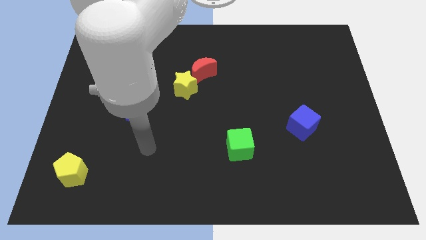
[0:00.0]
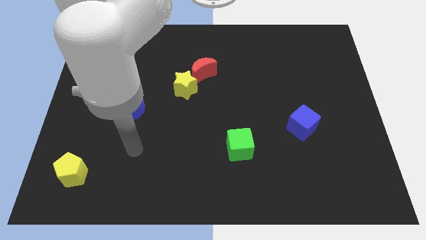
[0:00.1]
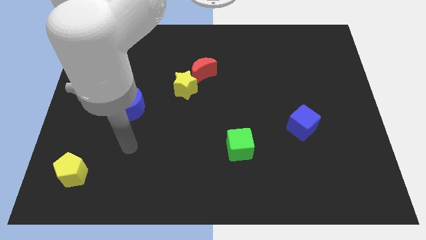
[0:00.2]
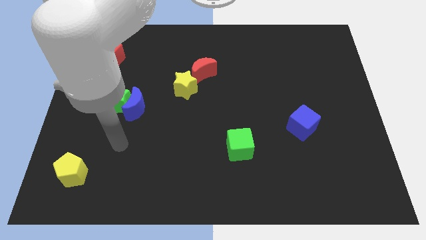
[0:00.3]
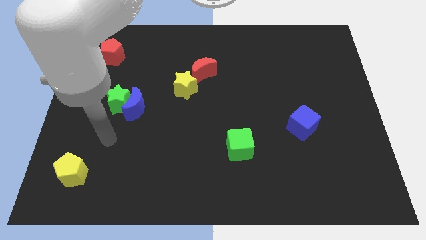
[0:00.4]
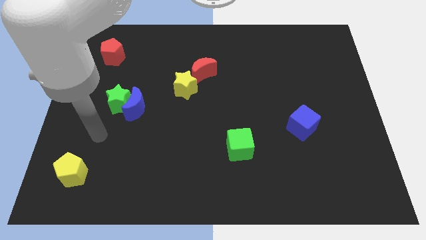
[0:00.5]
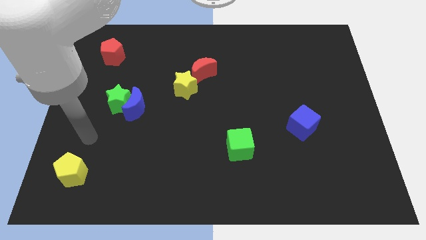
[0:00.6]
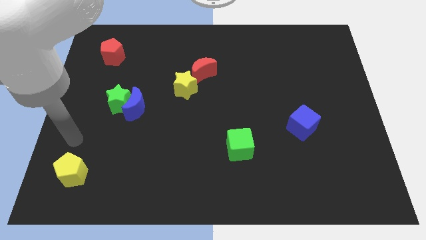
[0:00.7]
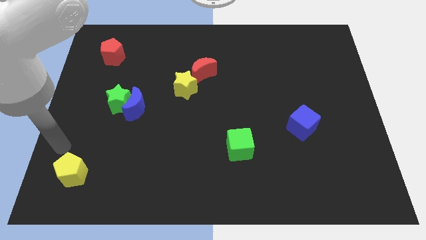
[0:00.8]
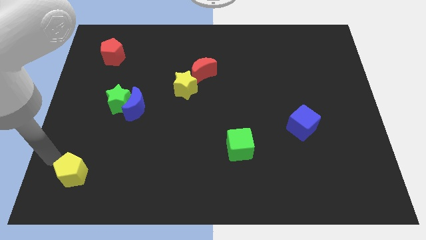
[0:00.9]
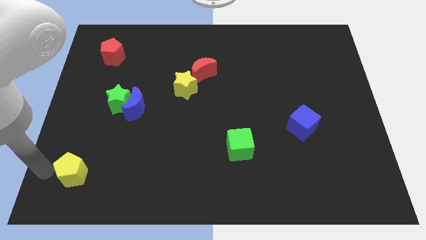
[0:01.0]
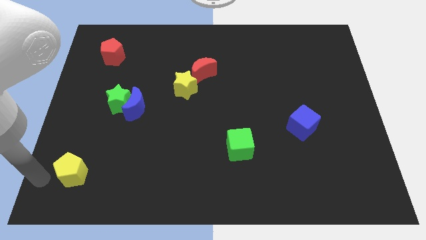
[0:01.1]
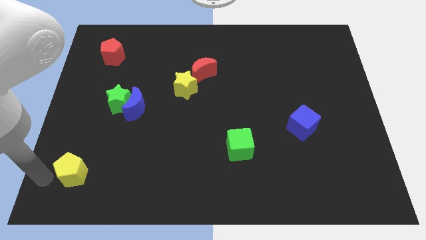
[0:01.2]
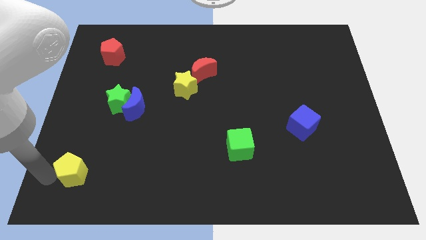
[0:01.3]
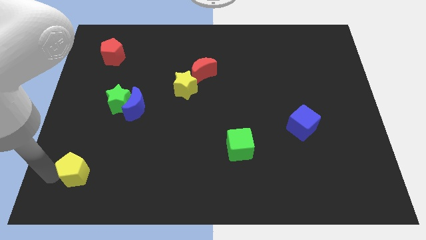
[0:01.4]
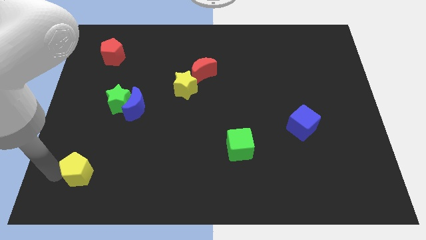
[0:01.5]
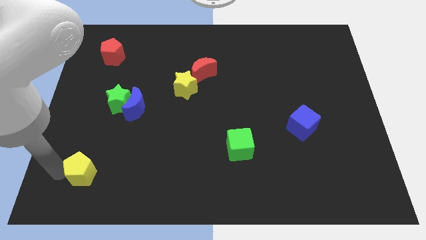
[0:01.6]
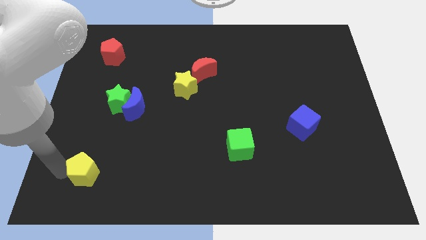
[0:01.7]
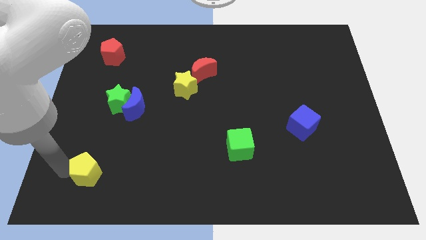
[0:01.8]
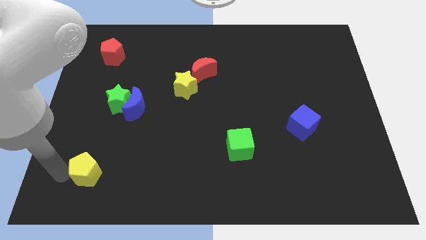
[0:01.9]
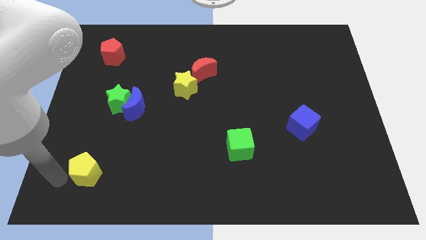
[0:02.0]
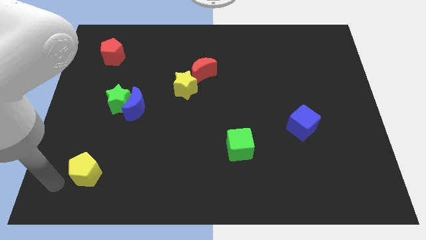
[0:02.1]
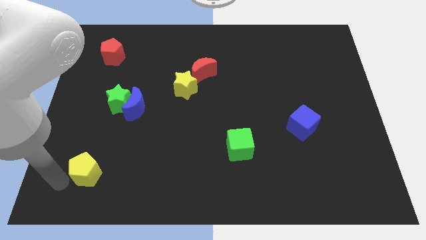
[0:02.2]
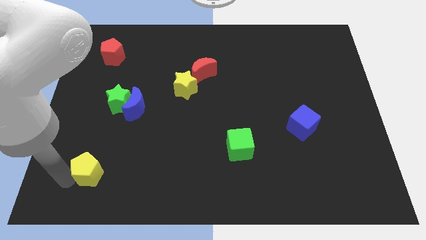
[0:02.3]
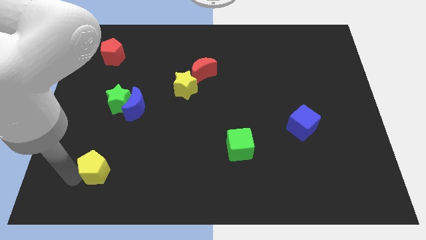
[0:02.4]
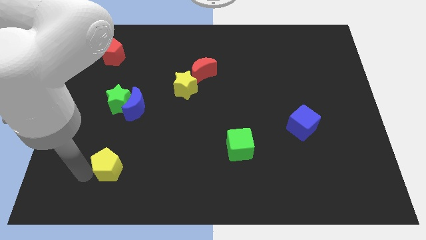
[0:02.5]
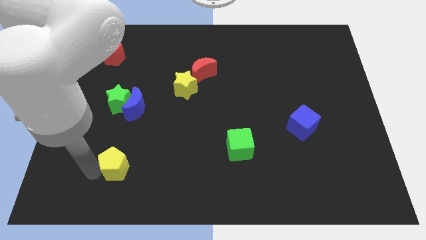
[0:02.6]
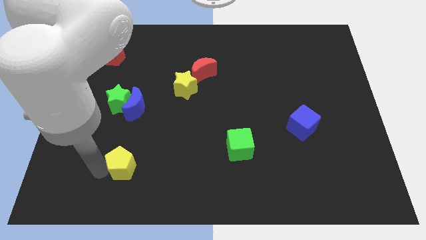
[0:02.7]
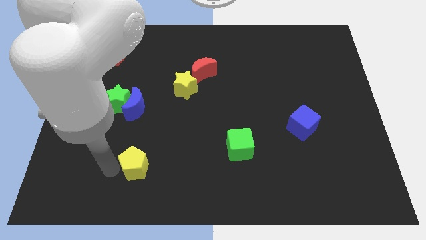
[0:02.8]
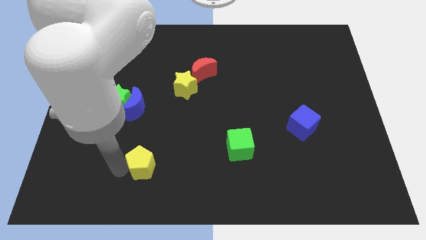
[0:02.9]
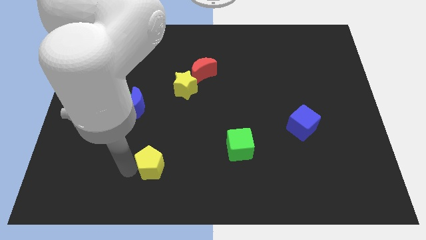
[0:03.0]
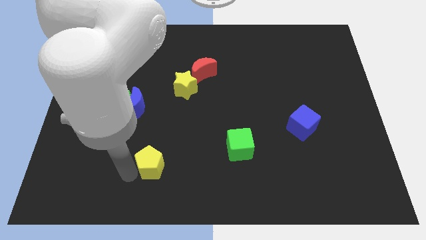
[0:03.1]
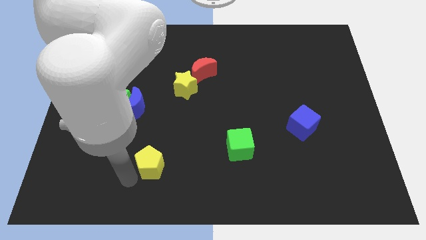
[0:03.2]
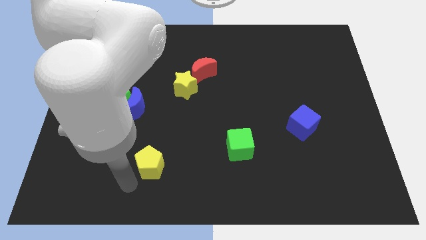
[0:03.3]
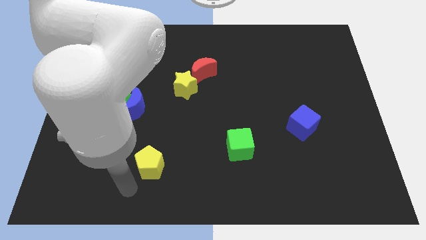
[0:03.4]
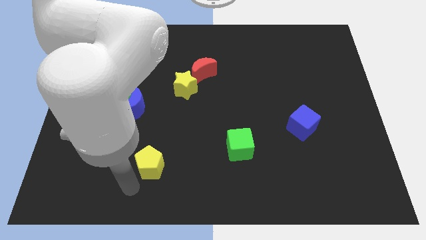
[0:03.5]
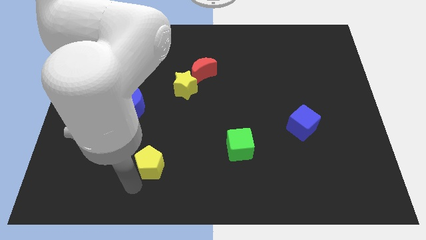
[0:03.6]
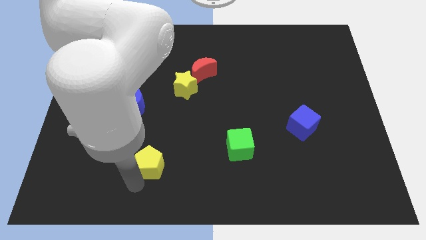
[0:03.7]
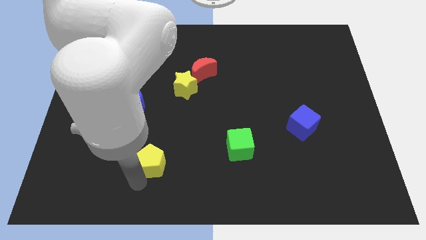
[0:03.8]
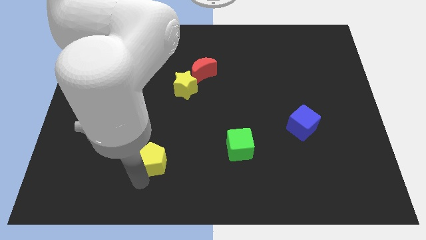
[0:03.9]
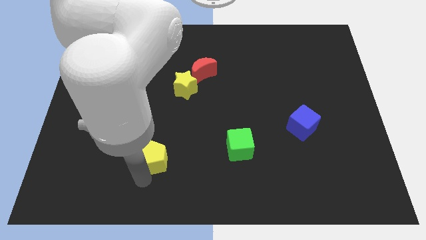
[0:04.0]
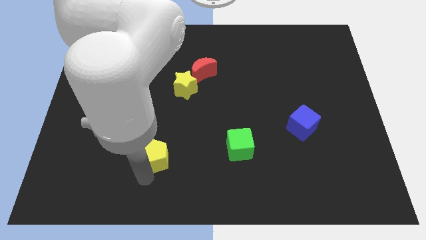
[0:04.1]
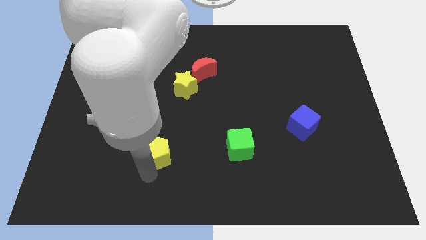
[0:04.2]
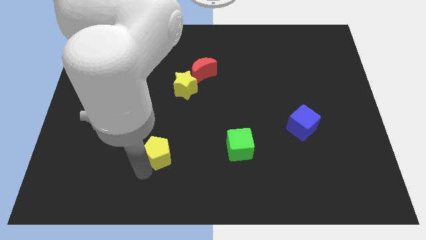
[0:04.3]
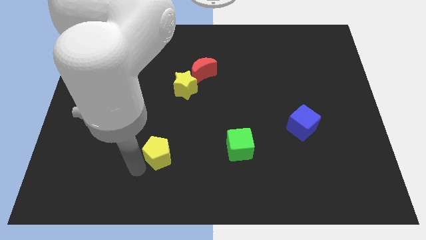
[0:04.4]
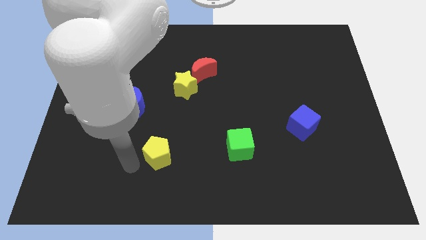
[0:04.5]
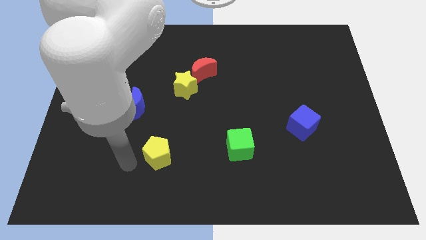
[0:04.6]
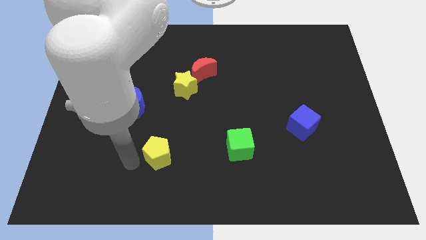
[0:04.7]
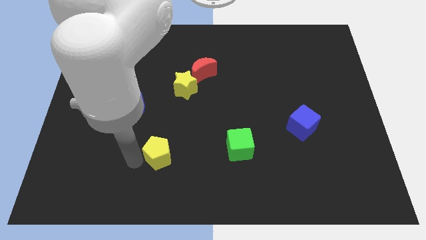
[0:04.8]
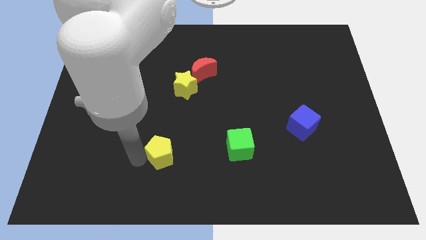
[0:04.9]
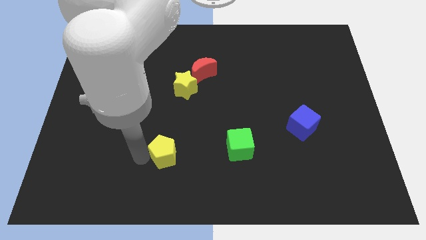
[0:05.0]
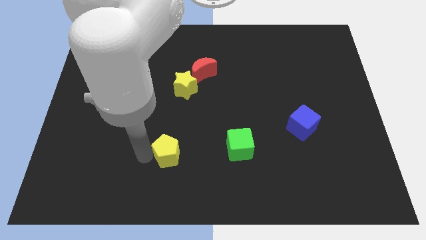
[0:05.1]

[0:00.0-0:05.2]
push the yellow pentagon just left of the green cube

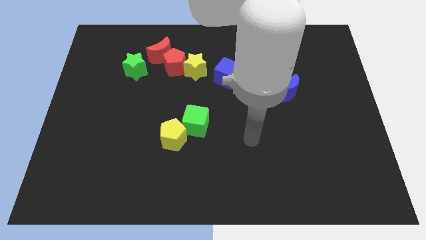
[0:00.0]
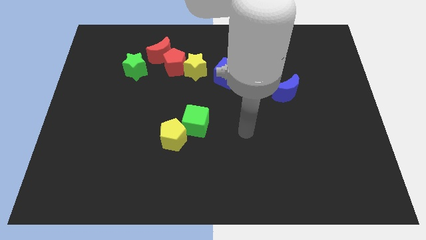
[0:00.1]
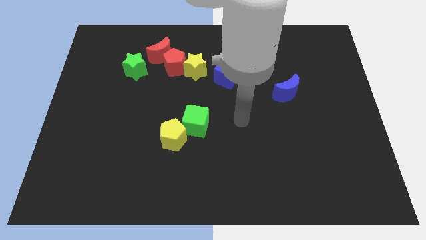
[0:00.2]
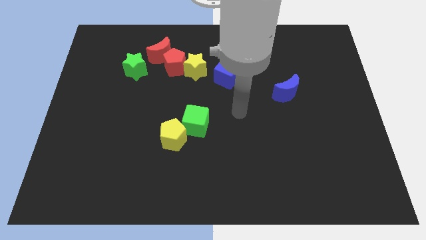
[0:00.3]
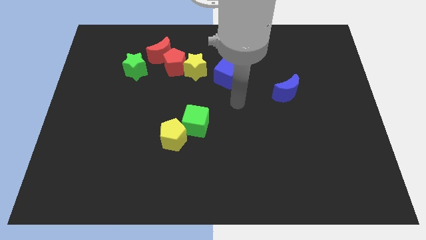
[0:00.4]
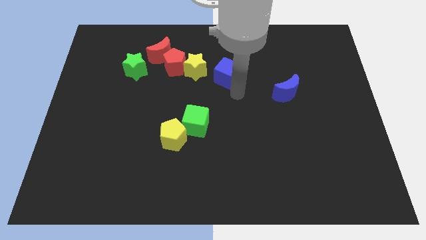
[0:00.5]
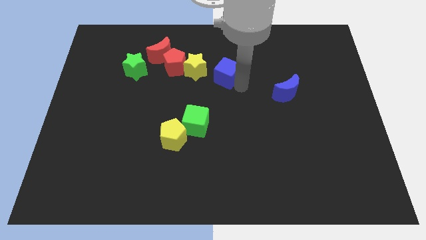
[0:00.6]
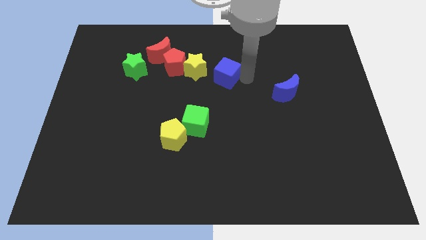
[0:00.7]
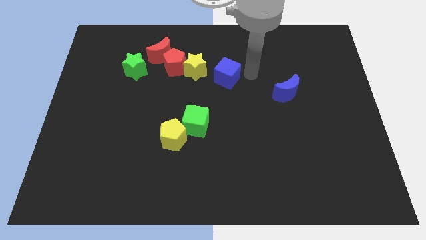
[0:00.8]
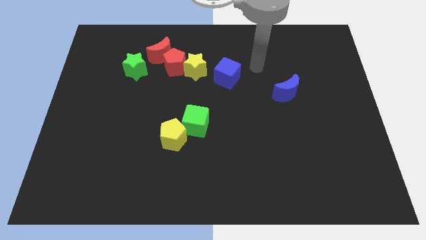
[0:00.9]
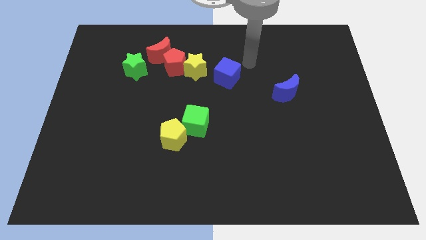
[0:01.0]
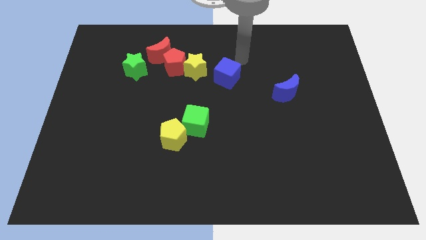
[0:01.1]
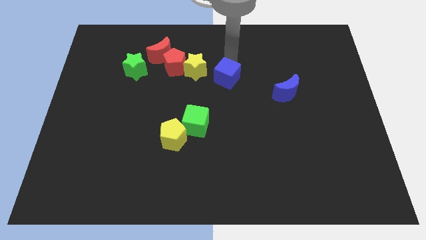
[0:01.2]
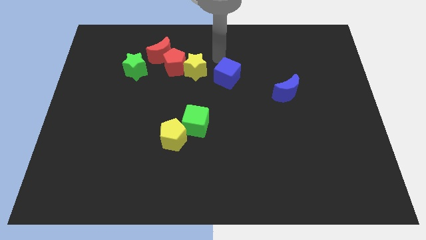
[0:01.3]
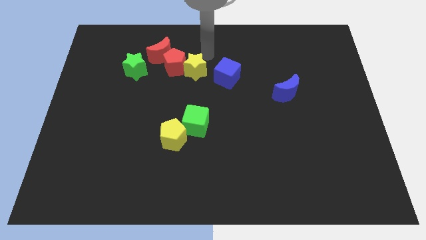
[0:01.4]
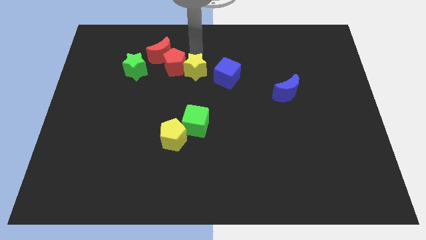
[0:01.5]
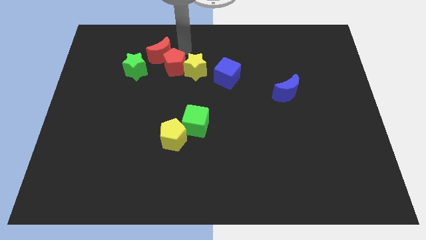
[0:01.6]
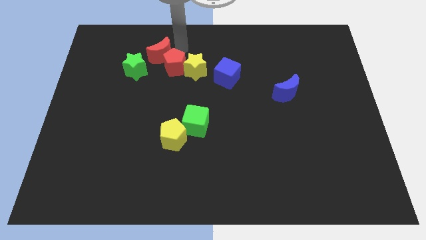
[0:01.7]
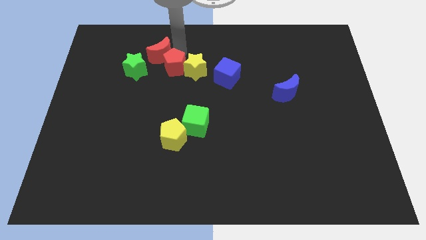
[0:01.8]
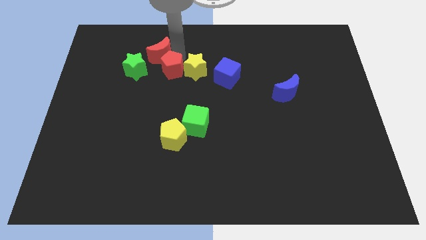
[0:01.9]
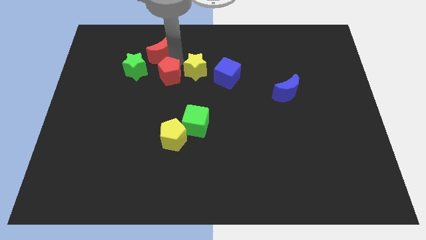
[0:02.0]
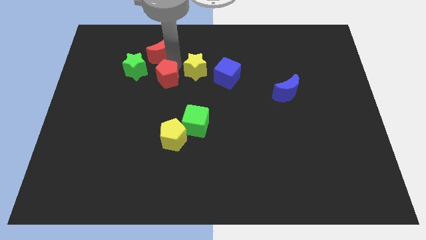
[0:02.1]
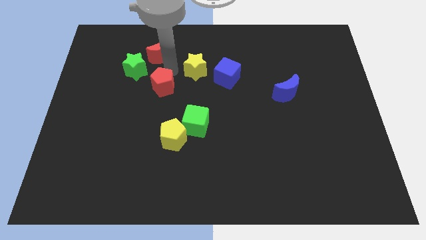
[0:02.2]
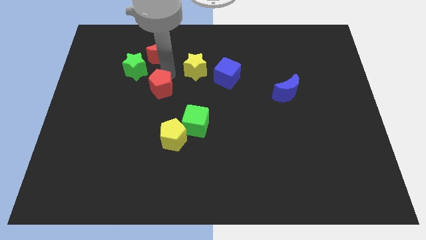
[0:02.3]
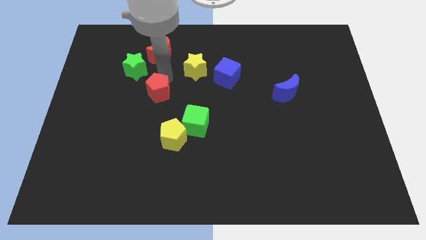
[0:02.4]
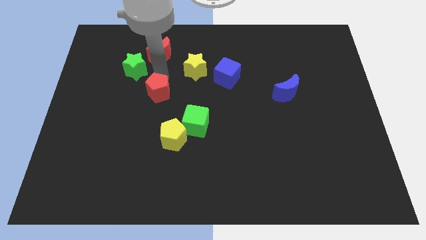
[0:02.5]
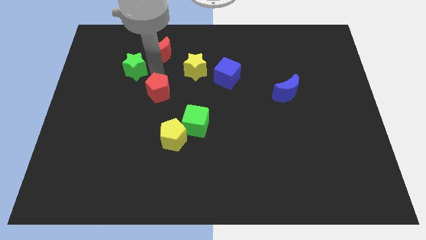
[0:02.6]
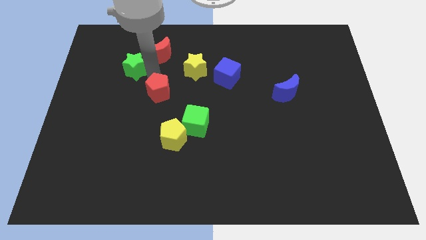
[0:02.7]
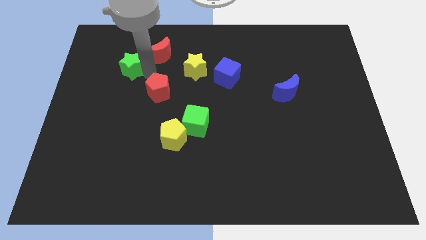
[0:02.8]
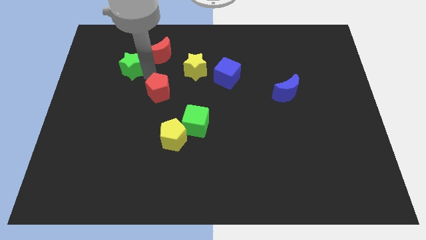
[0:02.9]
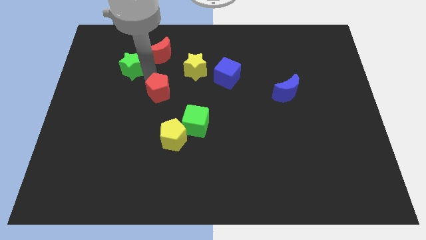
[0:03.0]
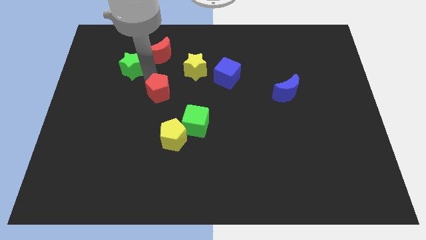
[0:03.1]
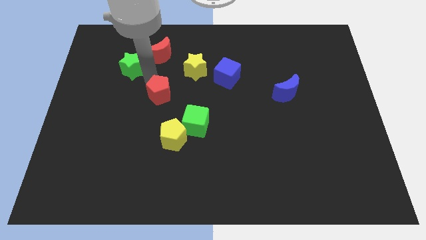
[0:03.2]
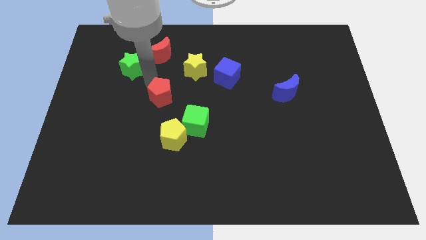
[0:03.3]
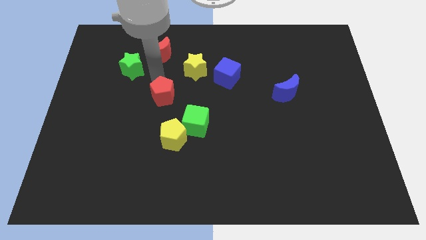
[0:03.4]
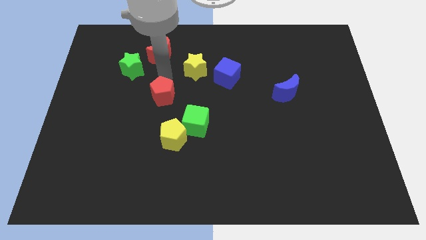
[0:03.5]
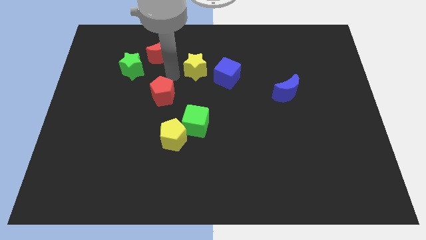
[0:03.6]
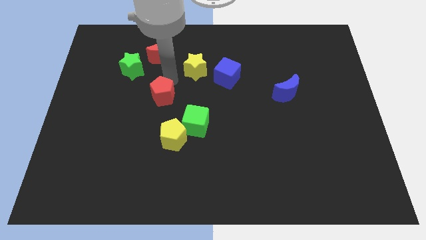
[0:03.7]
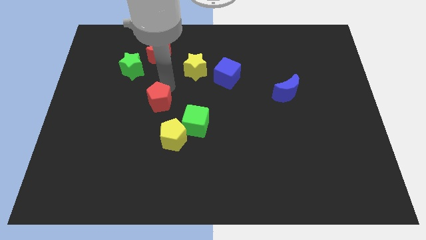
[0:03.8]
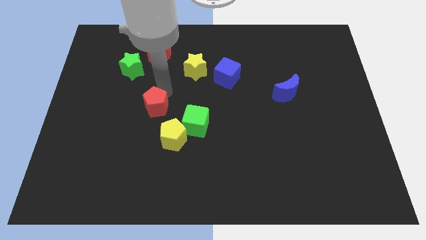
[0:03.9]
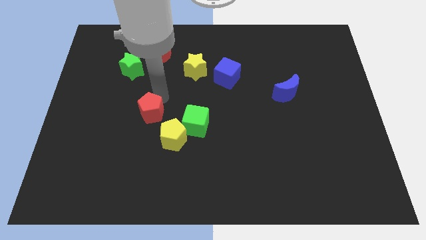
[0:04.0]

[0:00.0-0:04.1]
put the red pentagon to the left of the green cube
